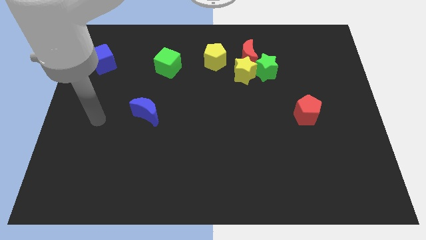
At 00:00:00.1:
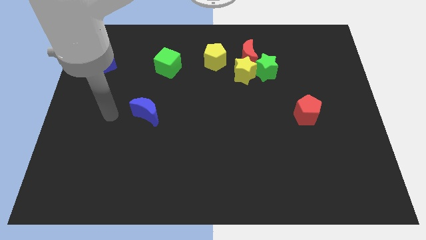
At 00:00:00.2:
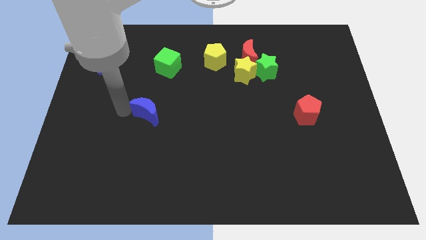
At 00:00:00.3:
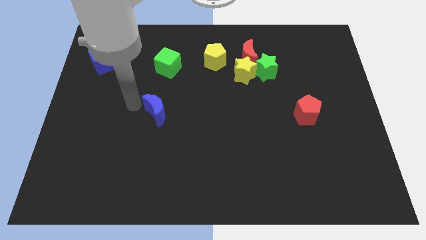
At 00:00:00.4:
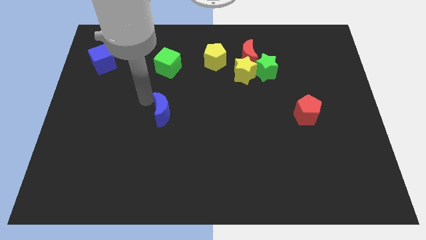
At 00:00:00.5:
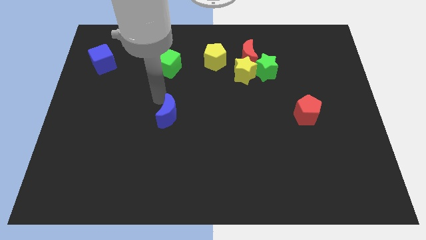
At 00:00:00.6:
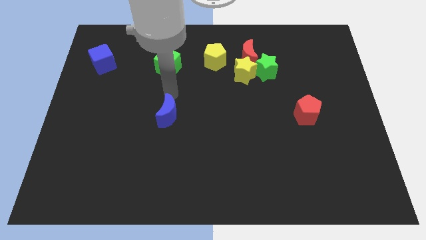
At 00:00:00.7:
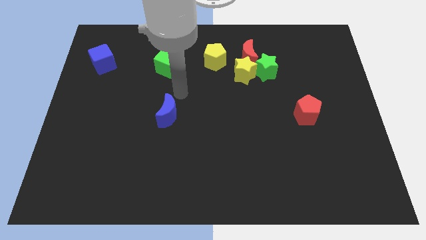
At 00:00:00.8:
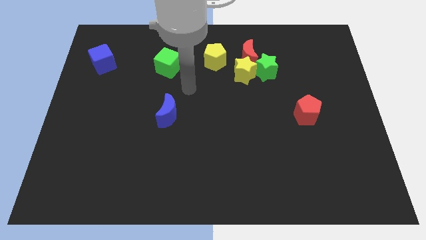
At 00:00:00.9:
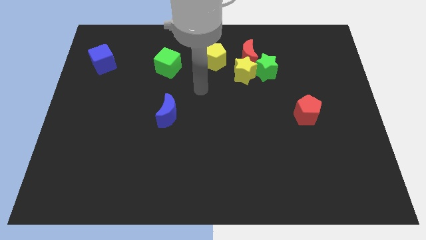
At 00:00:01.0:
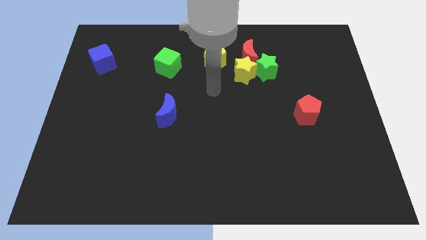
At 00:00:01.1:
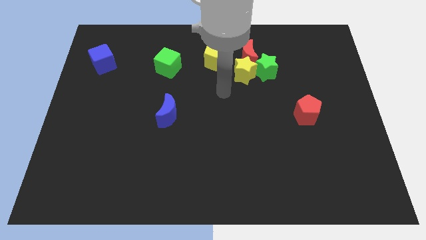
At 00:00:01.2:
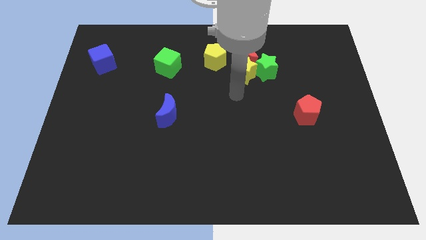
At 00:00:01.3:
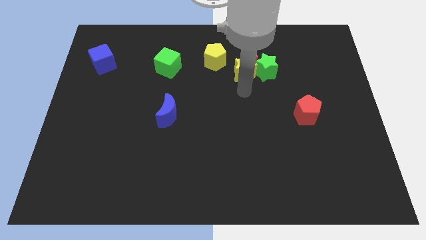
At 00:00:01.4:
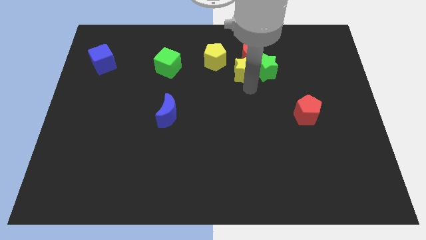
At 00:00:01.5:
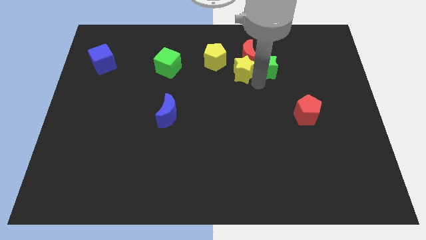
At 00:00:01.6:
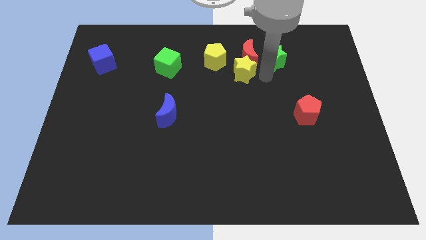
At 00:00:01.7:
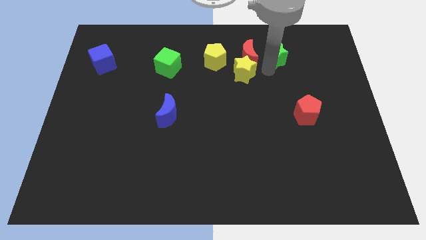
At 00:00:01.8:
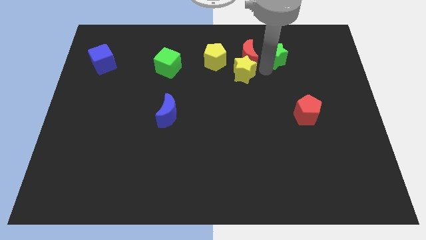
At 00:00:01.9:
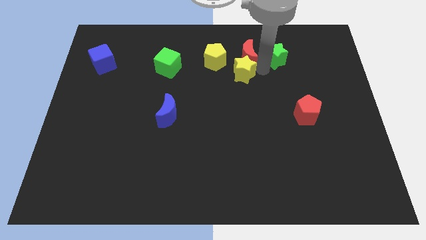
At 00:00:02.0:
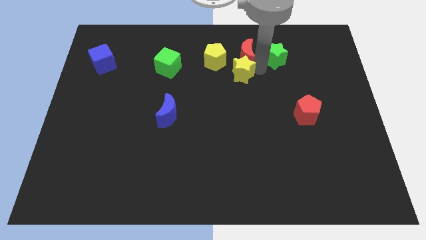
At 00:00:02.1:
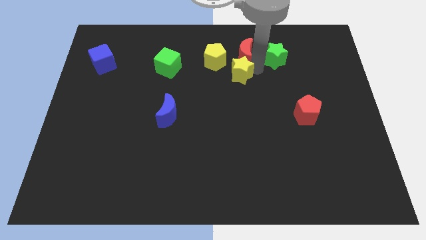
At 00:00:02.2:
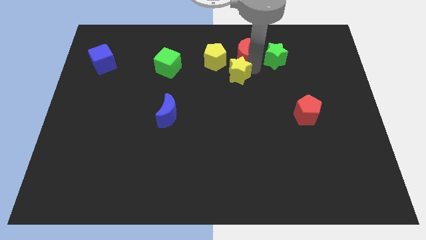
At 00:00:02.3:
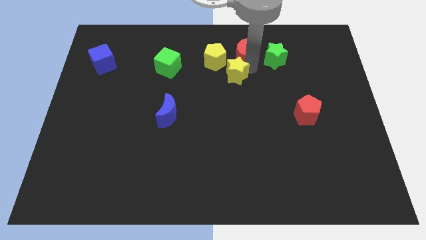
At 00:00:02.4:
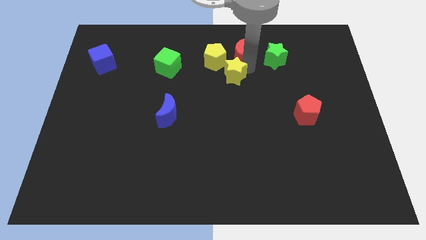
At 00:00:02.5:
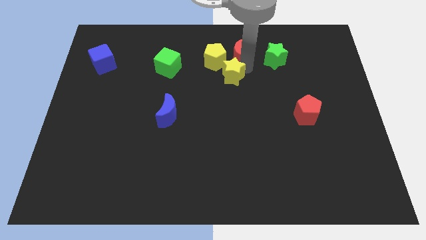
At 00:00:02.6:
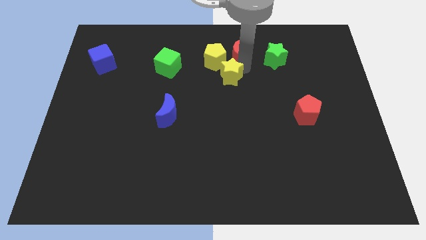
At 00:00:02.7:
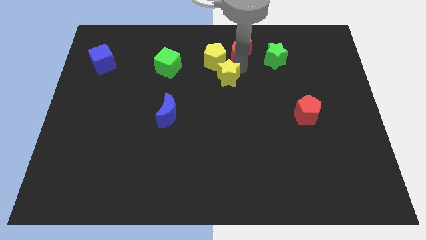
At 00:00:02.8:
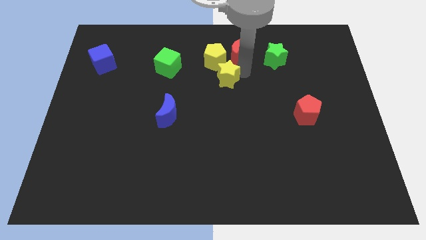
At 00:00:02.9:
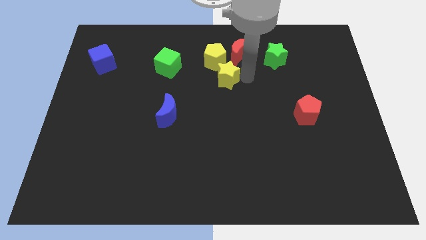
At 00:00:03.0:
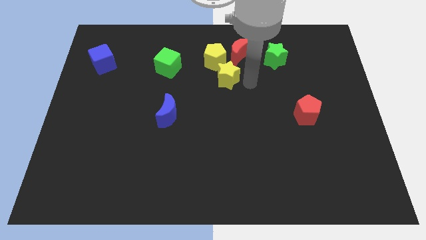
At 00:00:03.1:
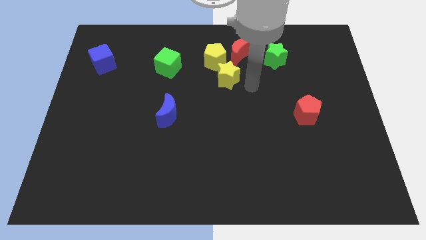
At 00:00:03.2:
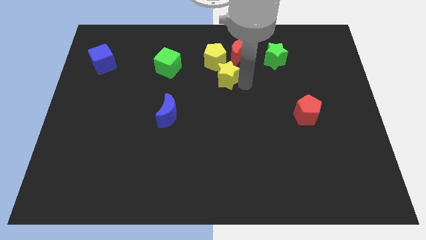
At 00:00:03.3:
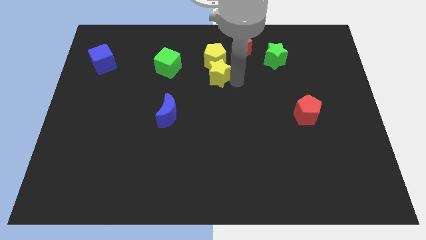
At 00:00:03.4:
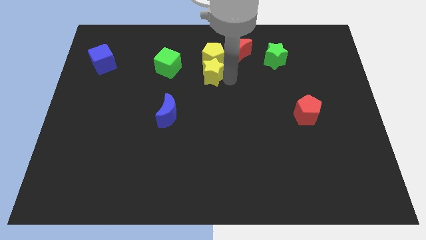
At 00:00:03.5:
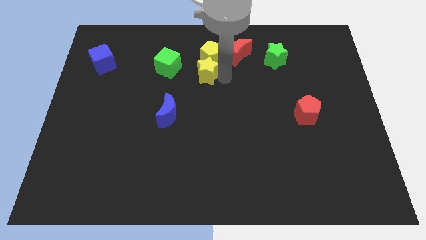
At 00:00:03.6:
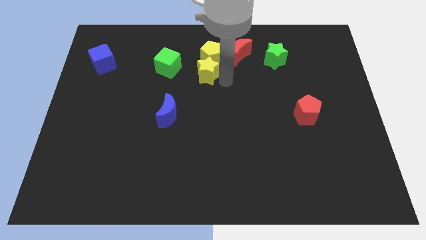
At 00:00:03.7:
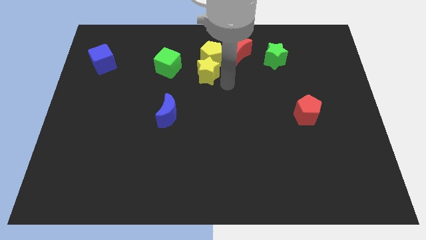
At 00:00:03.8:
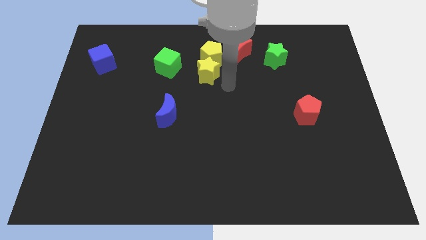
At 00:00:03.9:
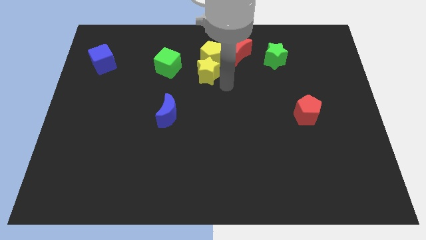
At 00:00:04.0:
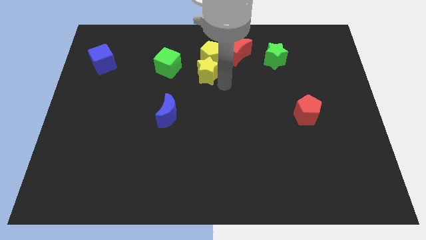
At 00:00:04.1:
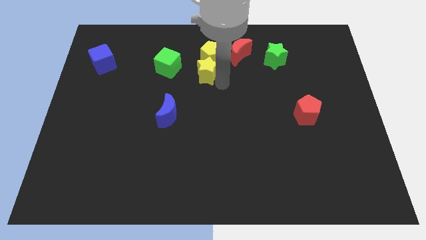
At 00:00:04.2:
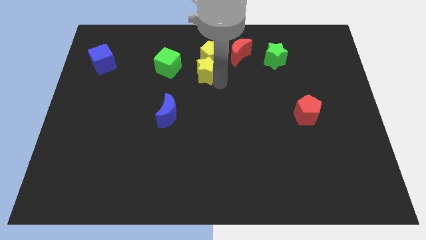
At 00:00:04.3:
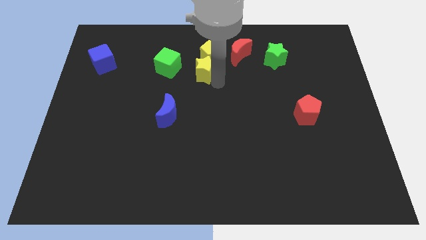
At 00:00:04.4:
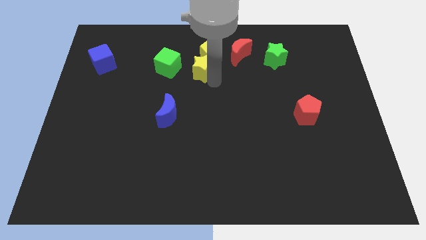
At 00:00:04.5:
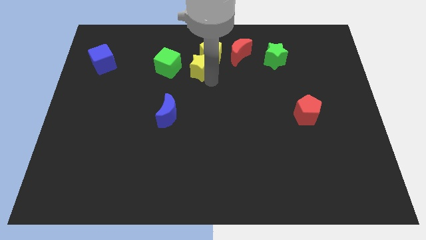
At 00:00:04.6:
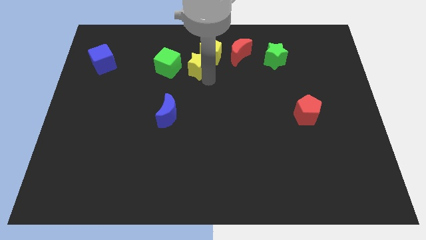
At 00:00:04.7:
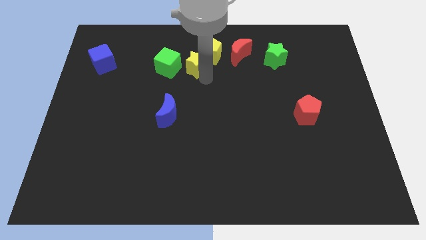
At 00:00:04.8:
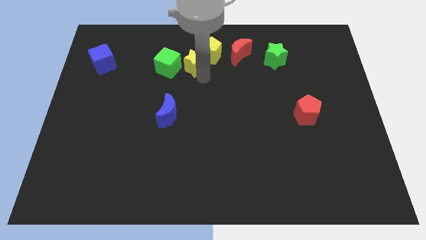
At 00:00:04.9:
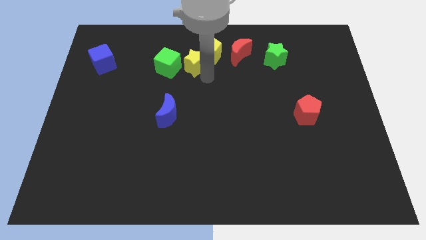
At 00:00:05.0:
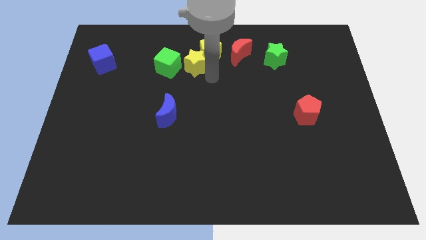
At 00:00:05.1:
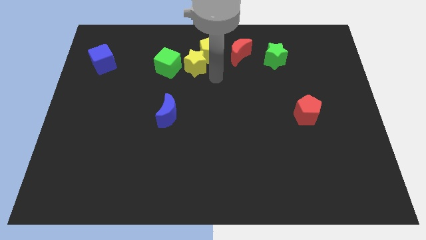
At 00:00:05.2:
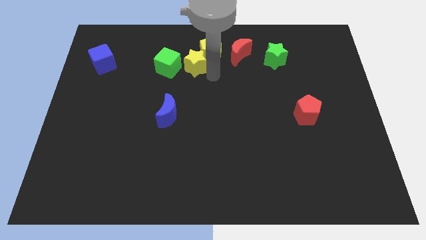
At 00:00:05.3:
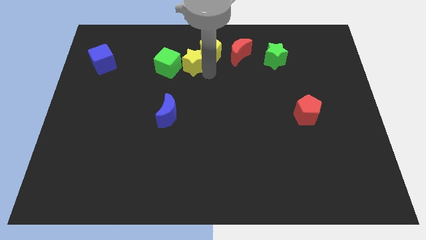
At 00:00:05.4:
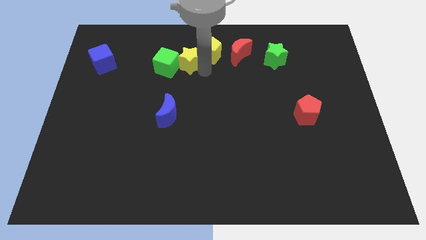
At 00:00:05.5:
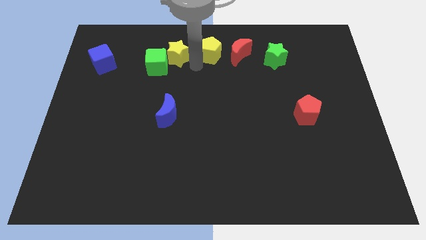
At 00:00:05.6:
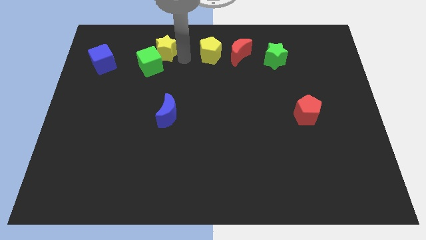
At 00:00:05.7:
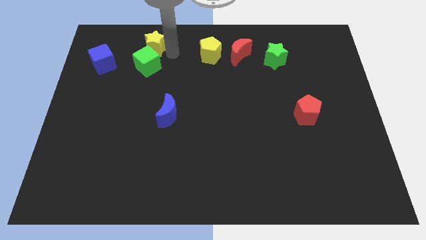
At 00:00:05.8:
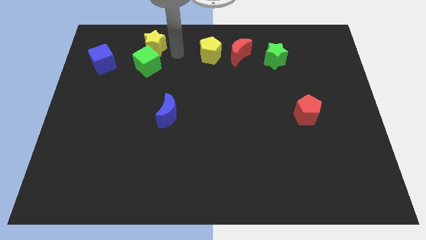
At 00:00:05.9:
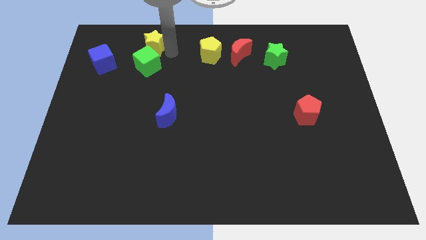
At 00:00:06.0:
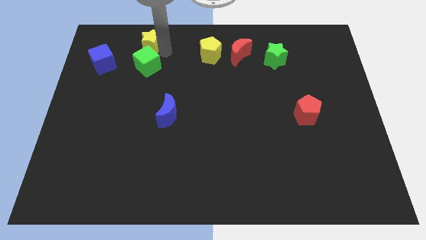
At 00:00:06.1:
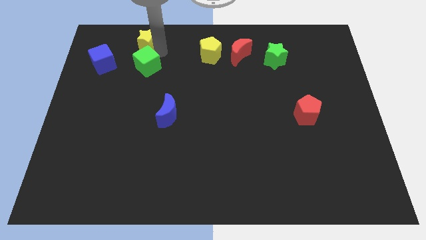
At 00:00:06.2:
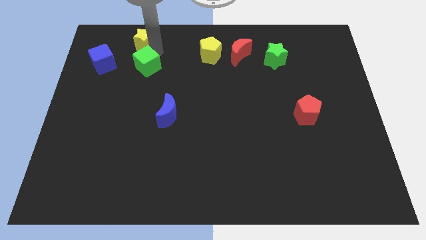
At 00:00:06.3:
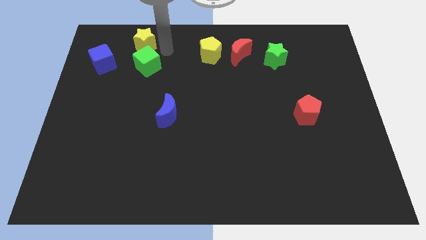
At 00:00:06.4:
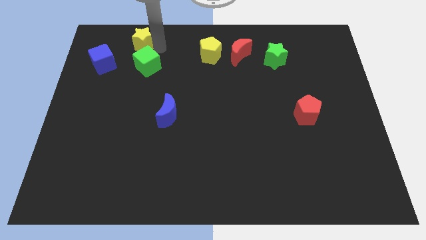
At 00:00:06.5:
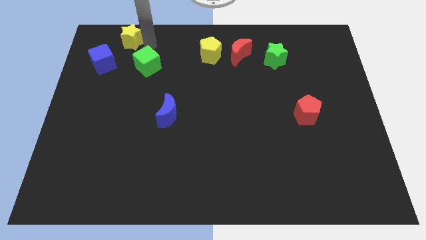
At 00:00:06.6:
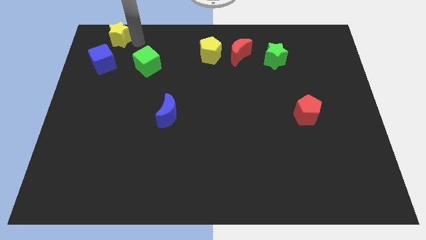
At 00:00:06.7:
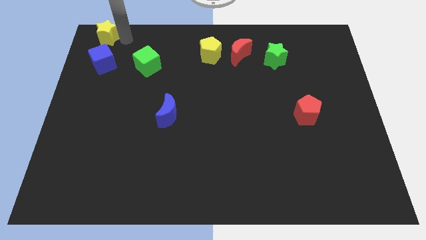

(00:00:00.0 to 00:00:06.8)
slide the yellow star to the upper left corner
